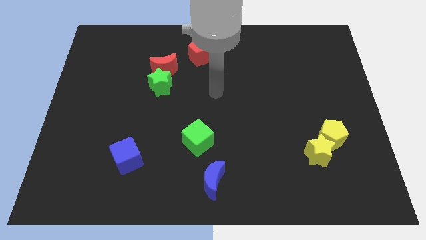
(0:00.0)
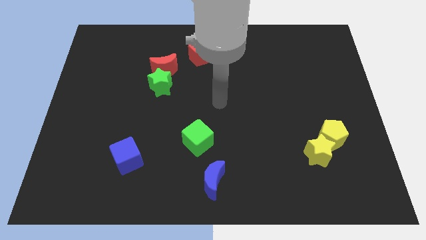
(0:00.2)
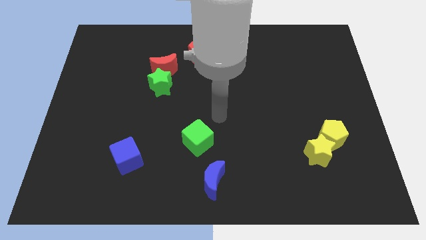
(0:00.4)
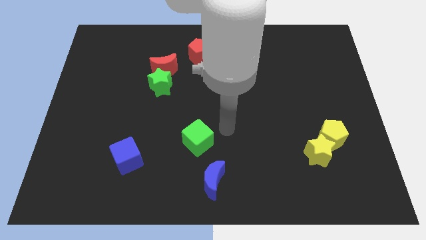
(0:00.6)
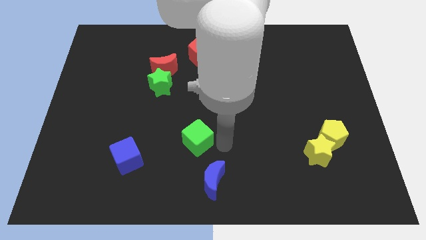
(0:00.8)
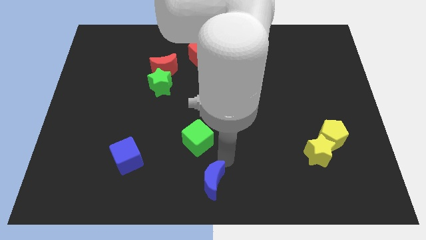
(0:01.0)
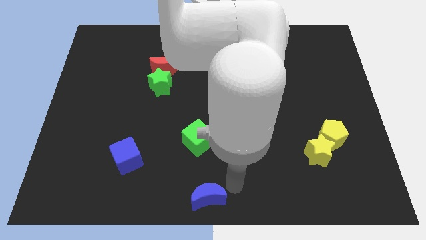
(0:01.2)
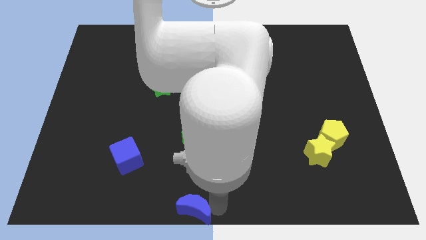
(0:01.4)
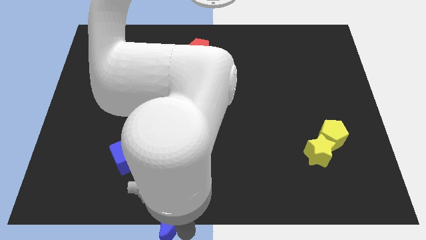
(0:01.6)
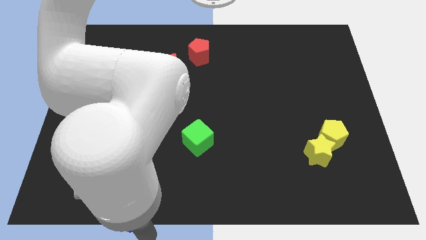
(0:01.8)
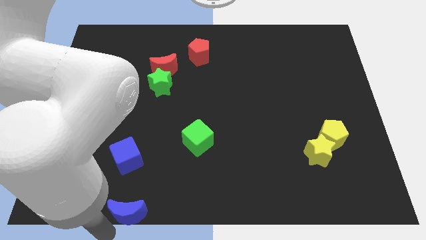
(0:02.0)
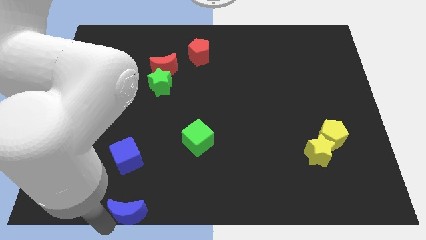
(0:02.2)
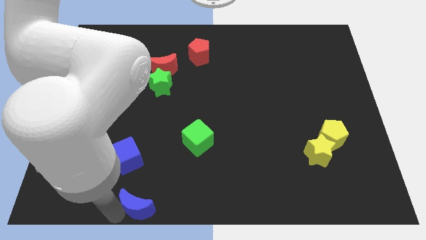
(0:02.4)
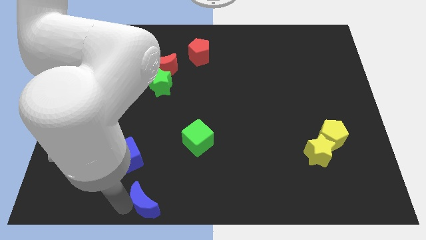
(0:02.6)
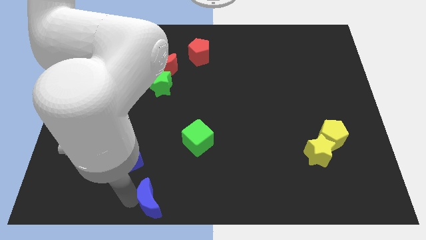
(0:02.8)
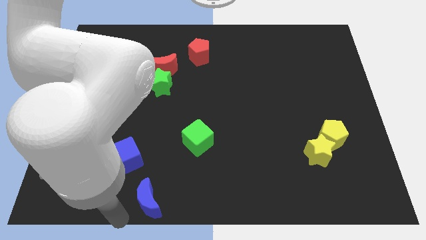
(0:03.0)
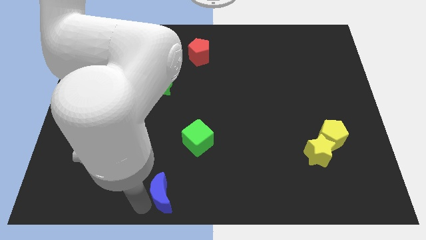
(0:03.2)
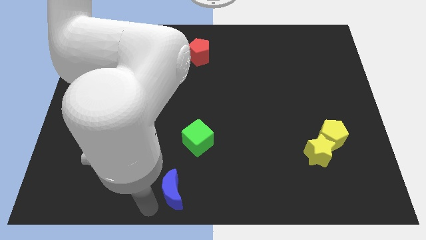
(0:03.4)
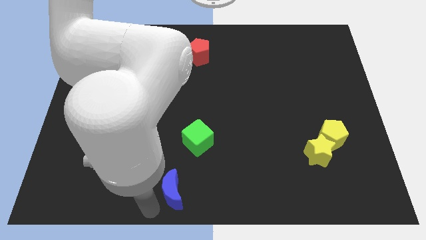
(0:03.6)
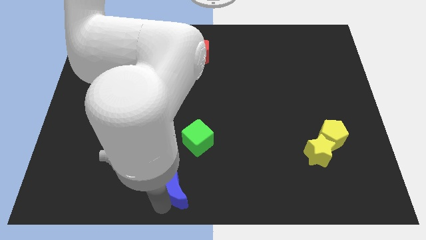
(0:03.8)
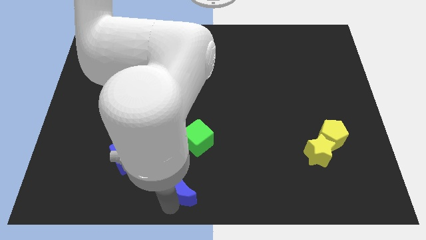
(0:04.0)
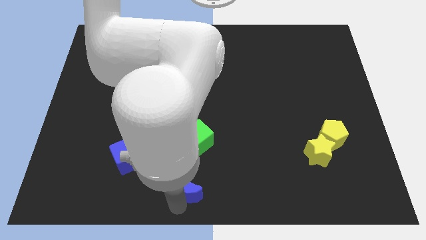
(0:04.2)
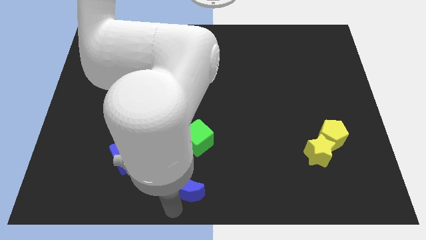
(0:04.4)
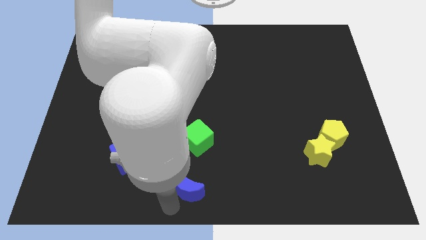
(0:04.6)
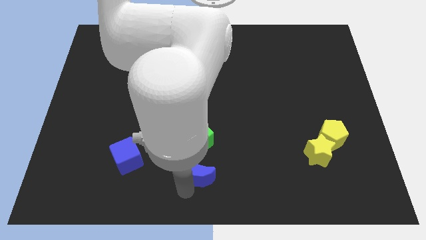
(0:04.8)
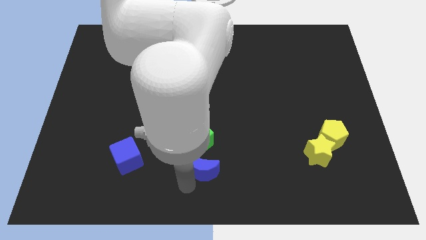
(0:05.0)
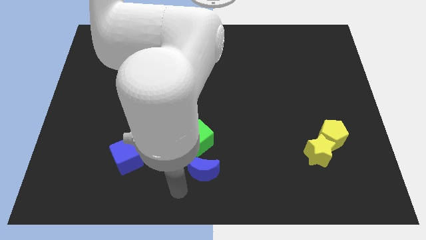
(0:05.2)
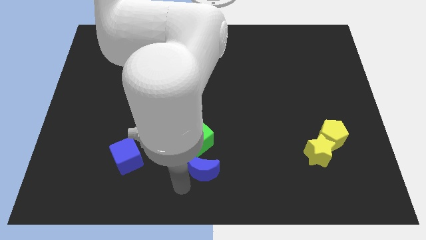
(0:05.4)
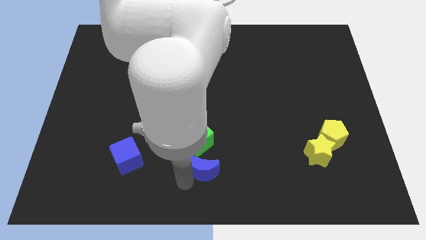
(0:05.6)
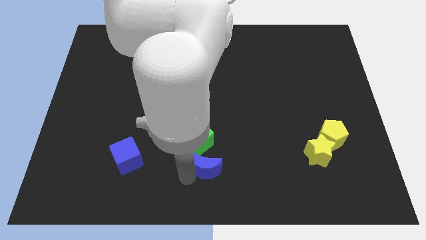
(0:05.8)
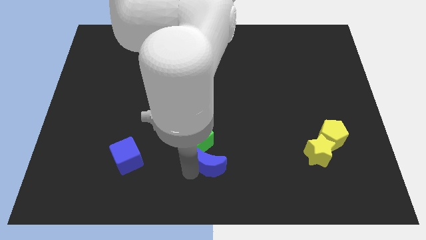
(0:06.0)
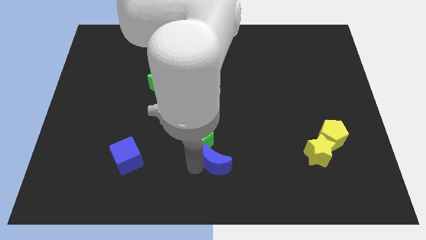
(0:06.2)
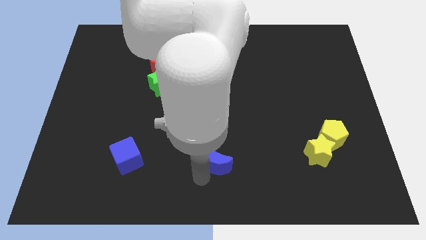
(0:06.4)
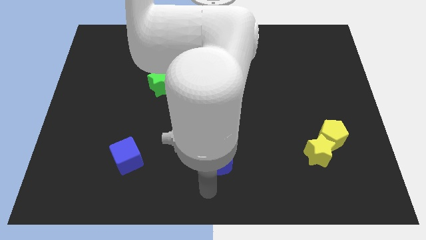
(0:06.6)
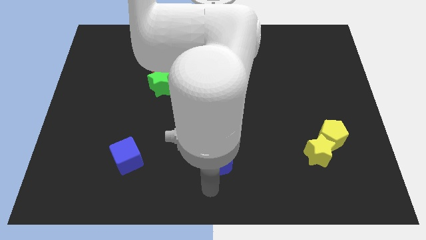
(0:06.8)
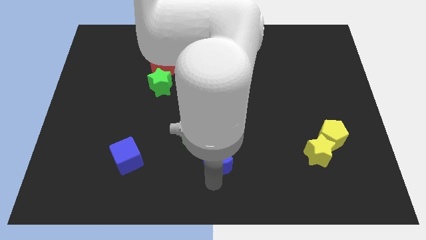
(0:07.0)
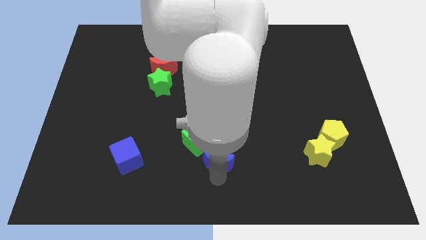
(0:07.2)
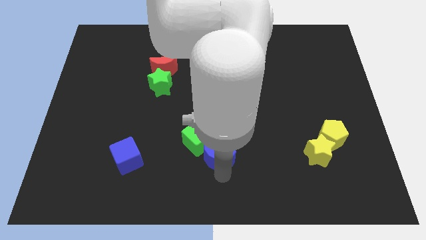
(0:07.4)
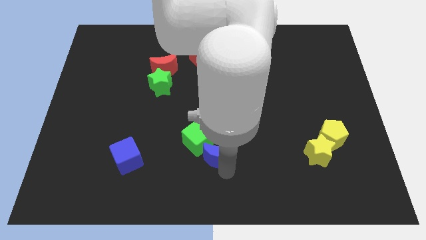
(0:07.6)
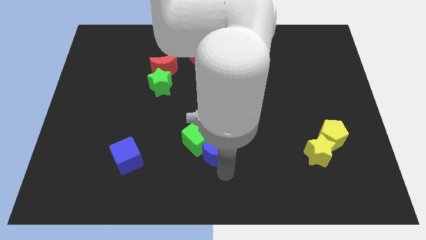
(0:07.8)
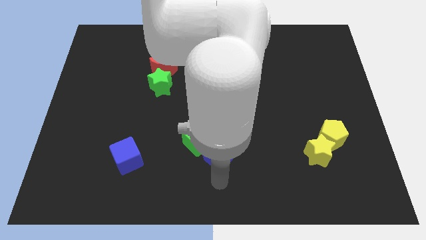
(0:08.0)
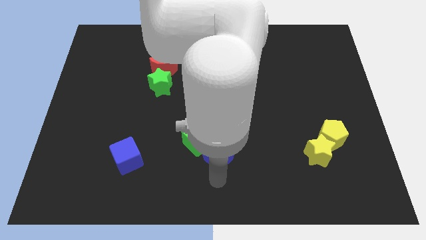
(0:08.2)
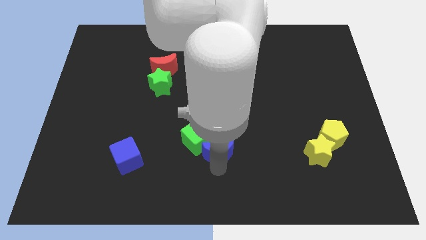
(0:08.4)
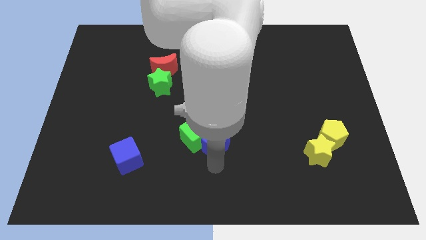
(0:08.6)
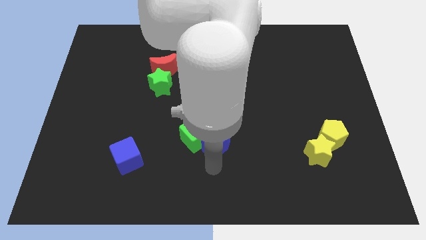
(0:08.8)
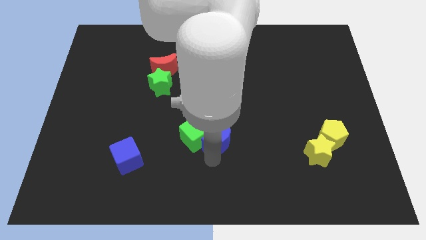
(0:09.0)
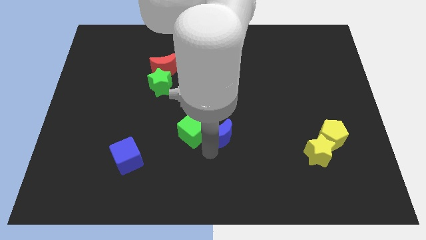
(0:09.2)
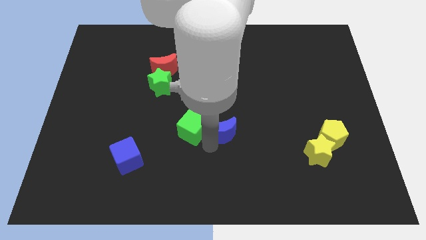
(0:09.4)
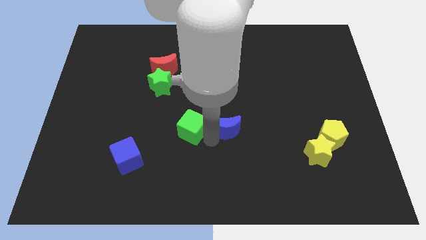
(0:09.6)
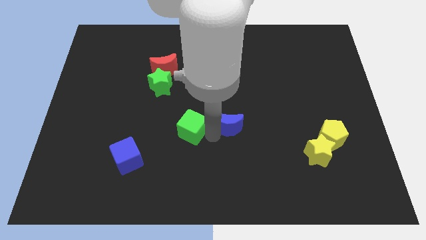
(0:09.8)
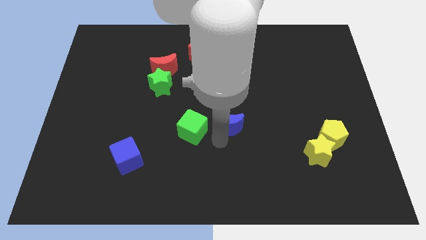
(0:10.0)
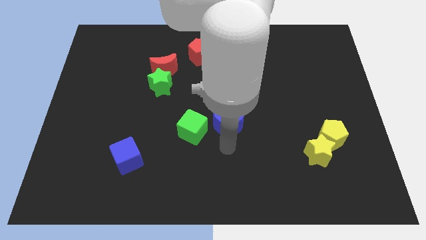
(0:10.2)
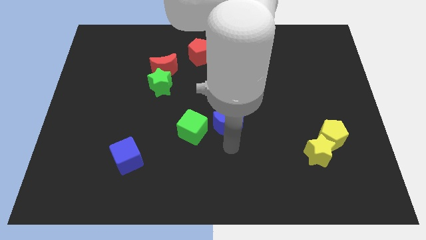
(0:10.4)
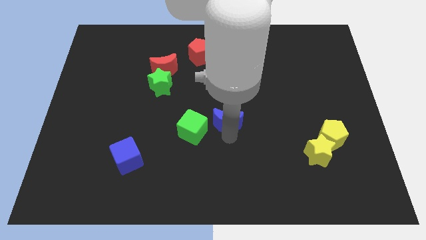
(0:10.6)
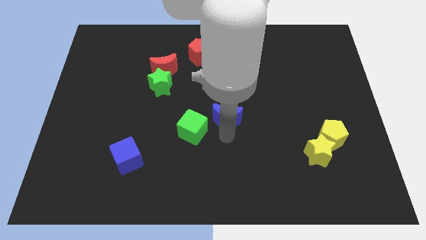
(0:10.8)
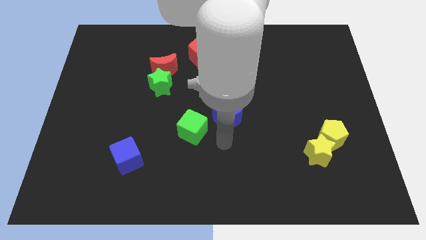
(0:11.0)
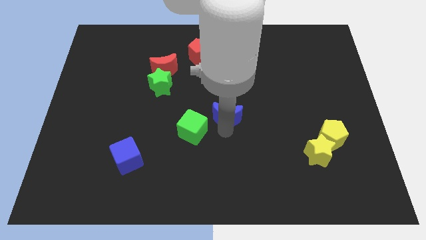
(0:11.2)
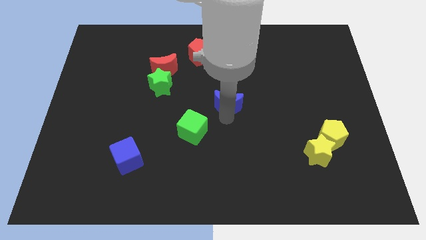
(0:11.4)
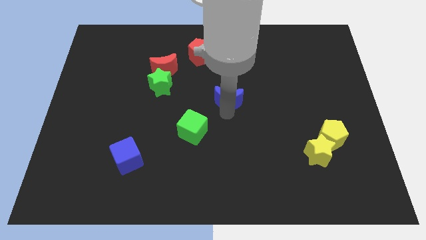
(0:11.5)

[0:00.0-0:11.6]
move the blue moon upwards

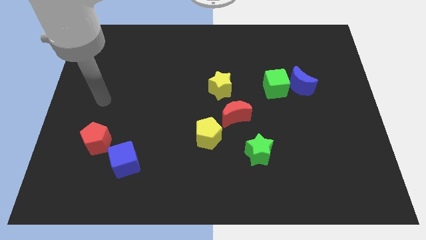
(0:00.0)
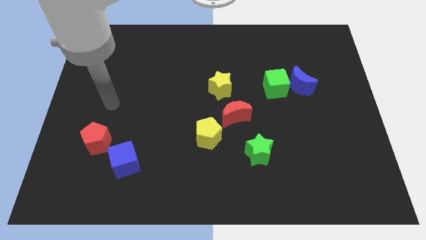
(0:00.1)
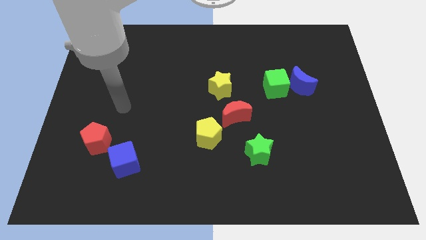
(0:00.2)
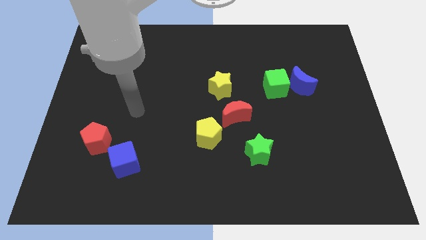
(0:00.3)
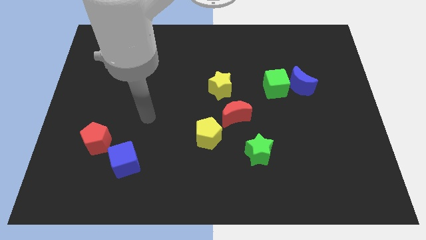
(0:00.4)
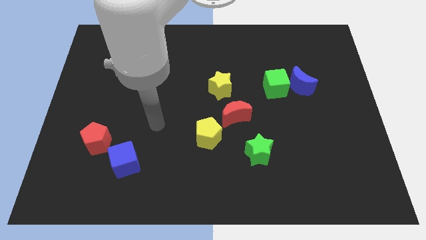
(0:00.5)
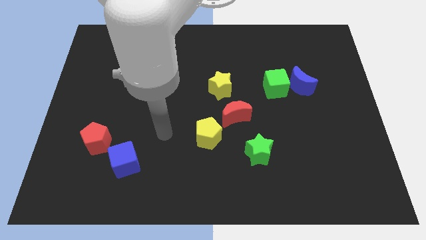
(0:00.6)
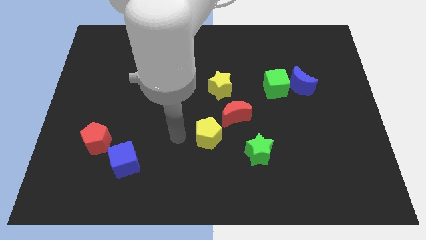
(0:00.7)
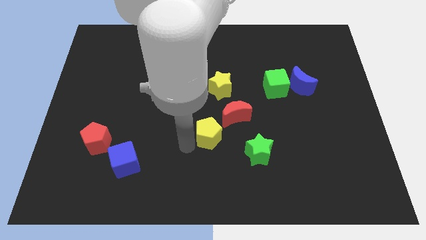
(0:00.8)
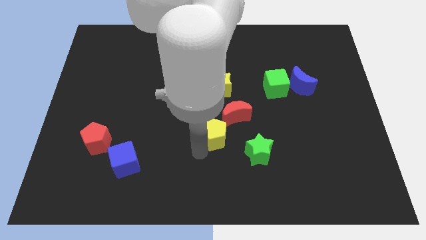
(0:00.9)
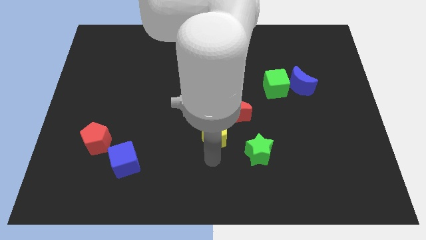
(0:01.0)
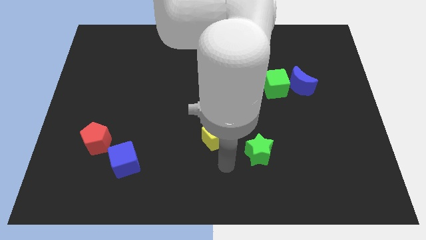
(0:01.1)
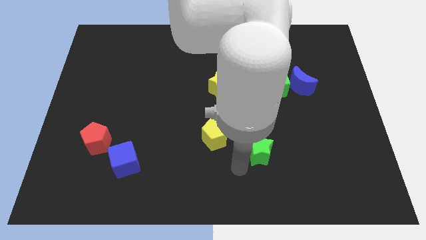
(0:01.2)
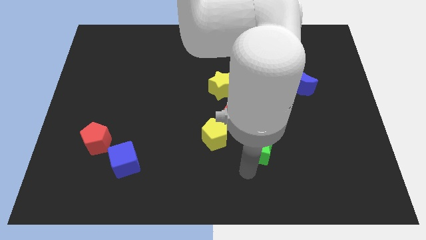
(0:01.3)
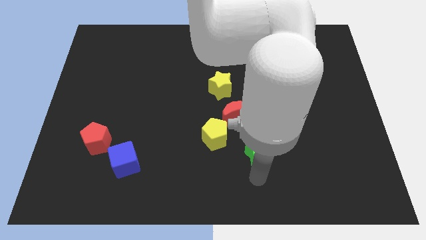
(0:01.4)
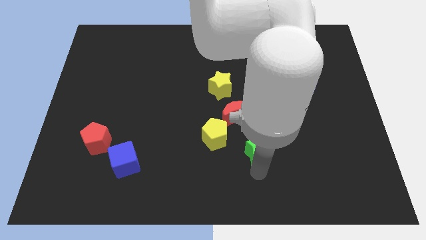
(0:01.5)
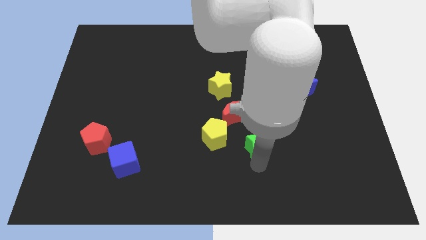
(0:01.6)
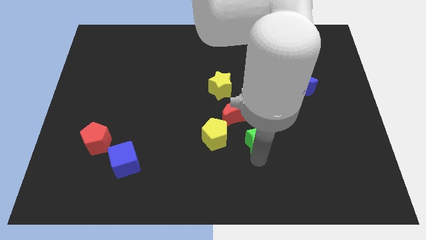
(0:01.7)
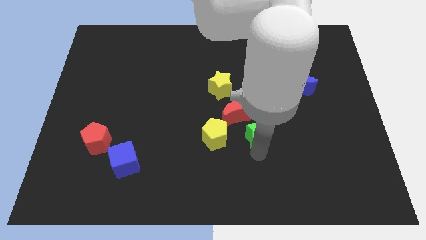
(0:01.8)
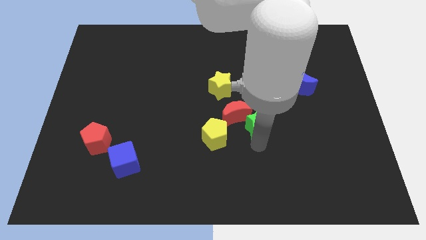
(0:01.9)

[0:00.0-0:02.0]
push the green star upwards a little
